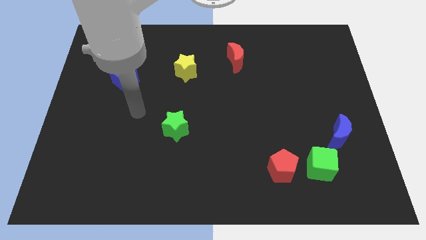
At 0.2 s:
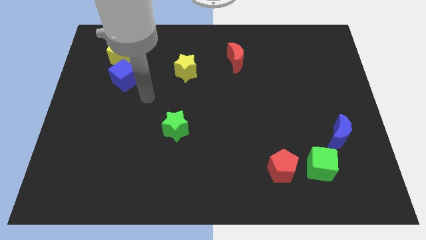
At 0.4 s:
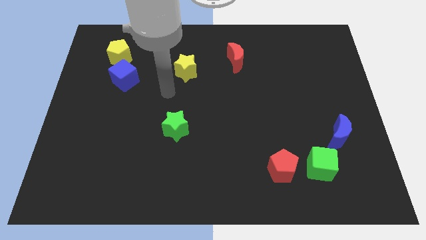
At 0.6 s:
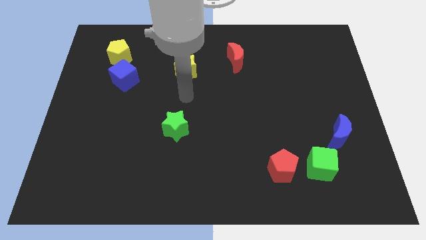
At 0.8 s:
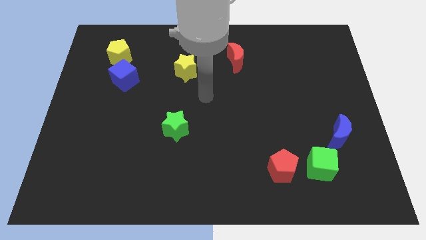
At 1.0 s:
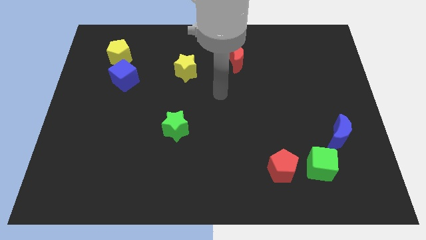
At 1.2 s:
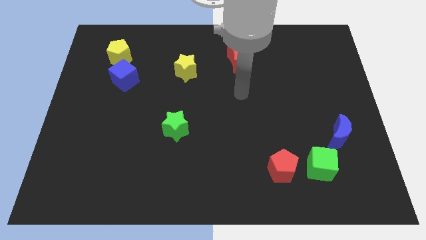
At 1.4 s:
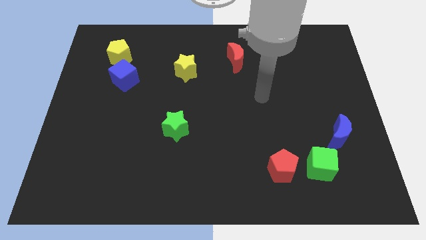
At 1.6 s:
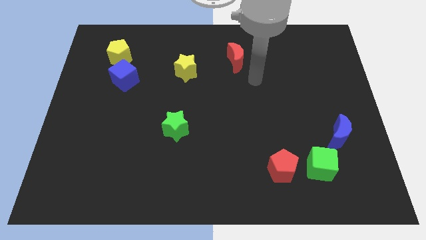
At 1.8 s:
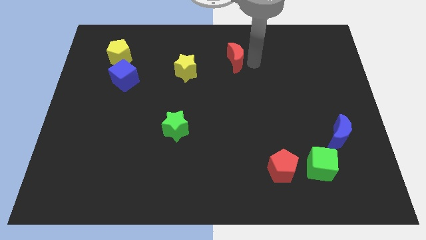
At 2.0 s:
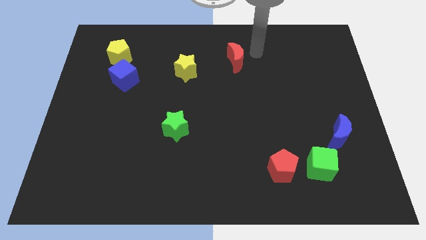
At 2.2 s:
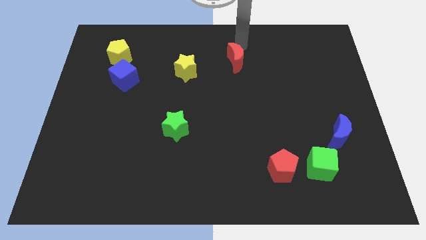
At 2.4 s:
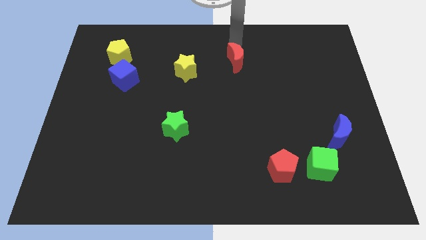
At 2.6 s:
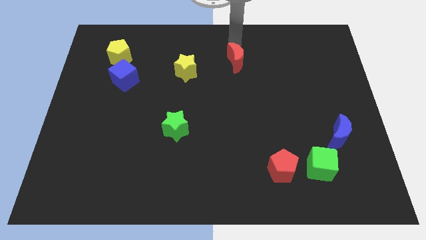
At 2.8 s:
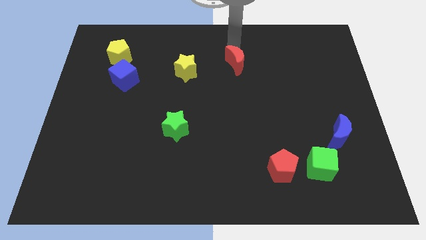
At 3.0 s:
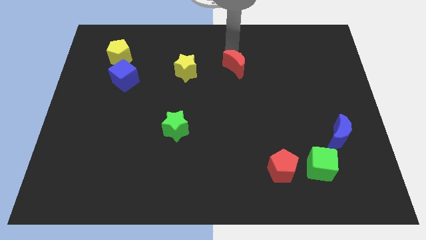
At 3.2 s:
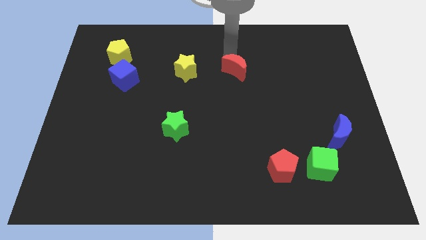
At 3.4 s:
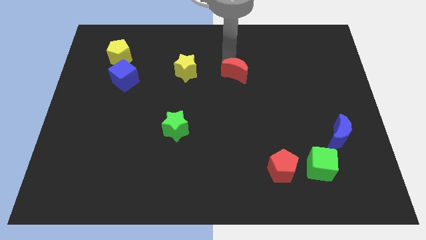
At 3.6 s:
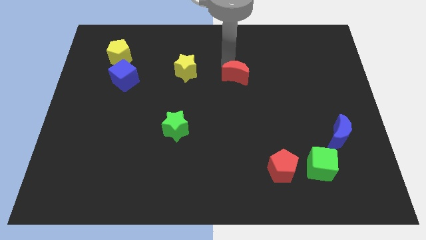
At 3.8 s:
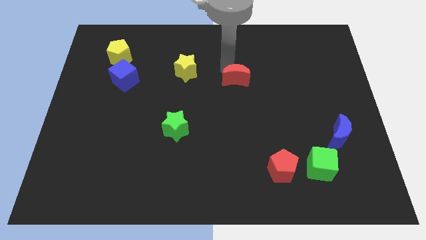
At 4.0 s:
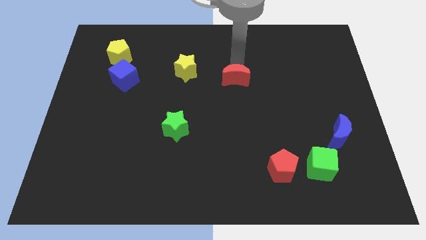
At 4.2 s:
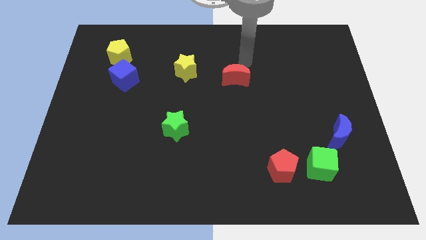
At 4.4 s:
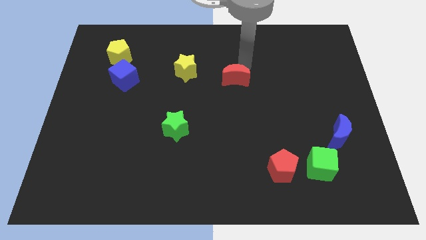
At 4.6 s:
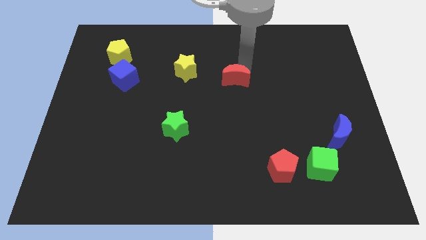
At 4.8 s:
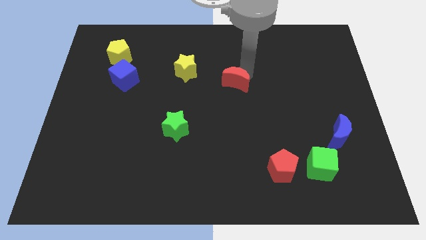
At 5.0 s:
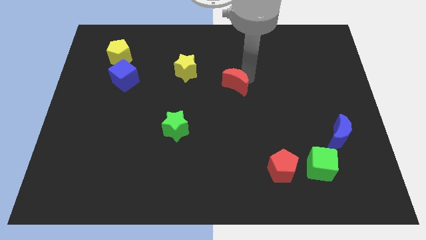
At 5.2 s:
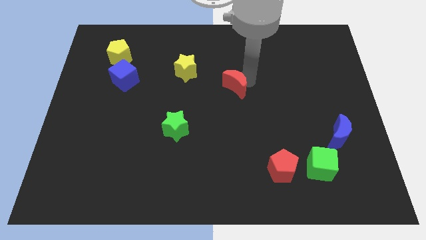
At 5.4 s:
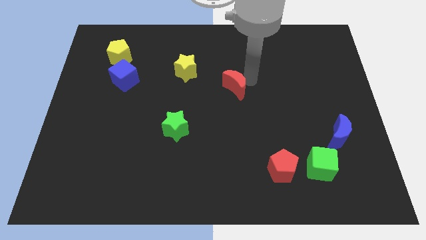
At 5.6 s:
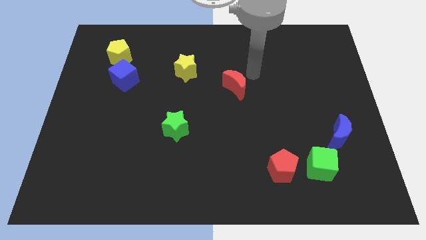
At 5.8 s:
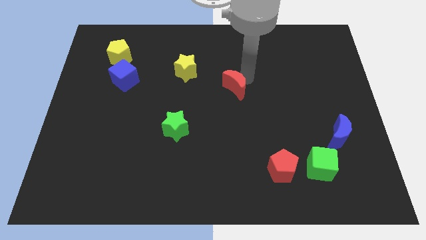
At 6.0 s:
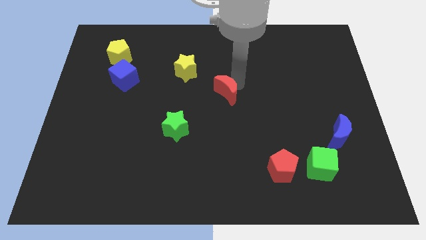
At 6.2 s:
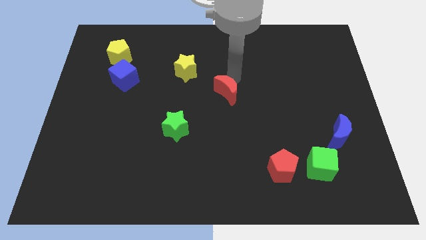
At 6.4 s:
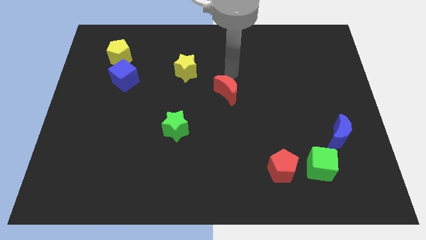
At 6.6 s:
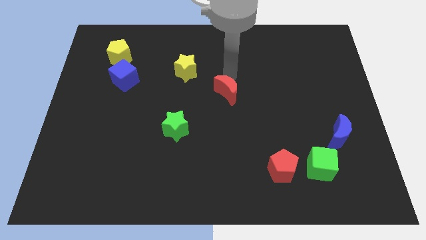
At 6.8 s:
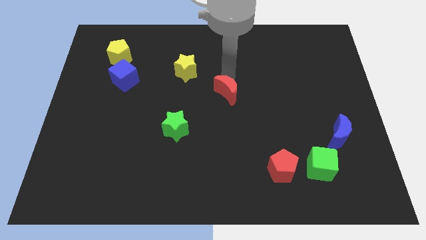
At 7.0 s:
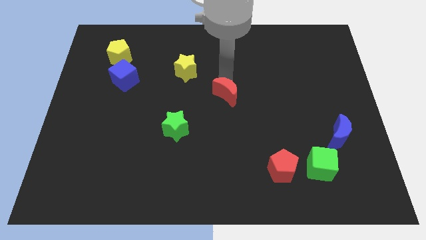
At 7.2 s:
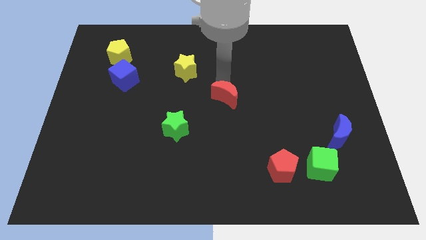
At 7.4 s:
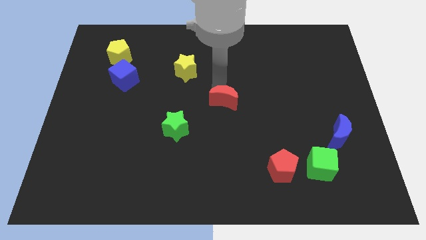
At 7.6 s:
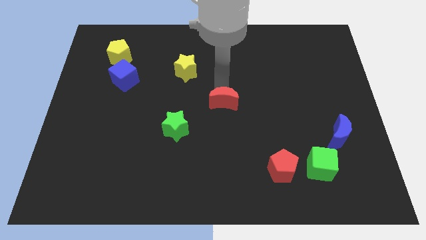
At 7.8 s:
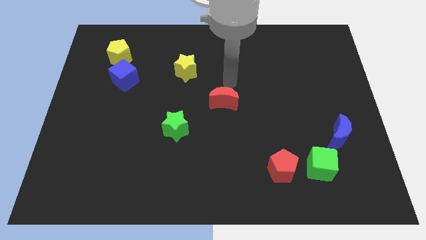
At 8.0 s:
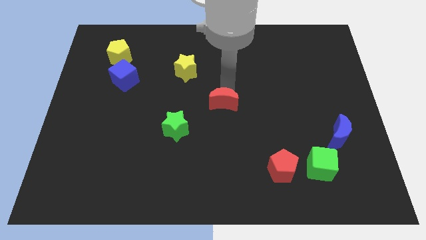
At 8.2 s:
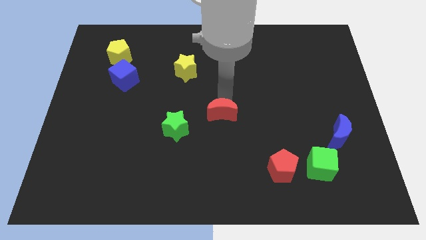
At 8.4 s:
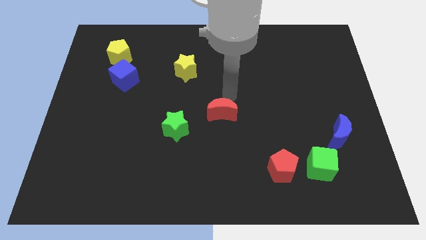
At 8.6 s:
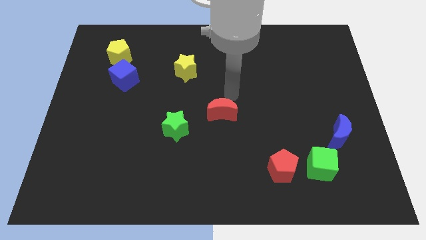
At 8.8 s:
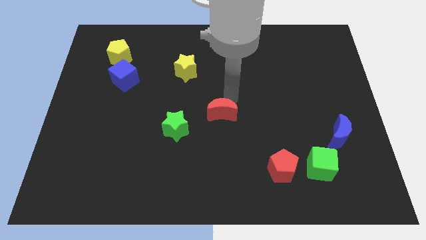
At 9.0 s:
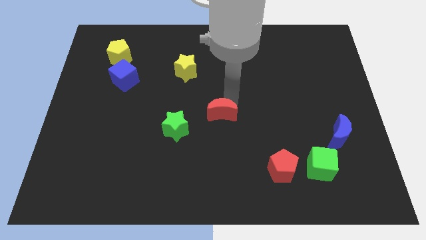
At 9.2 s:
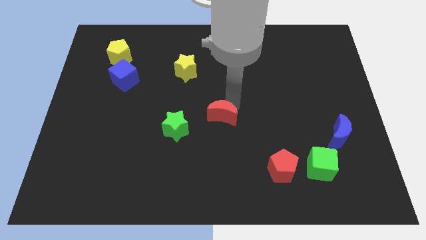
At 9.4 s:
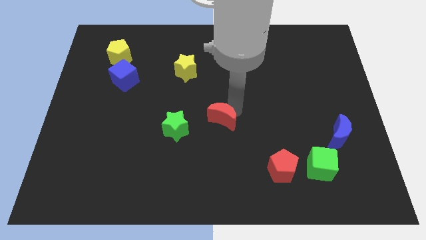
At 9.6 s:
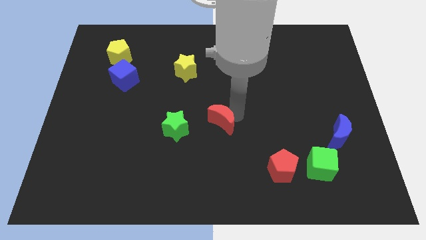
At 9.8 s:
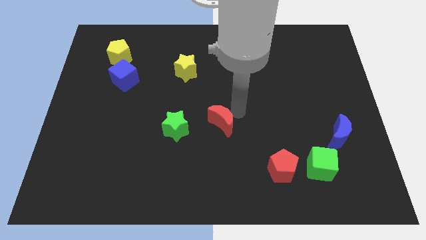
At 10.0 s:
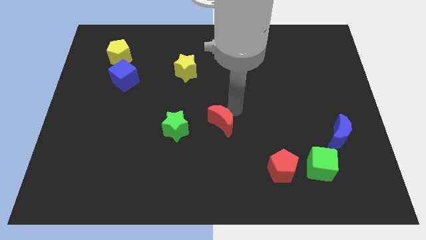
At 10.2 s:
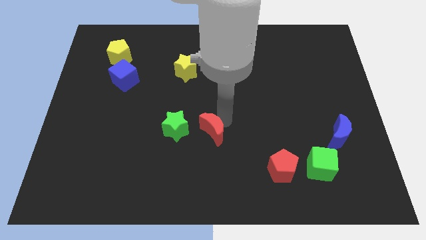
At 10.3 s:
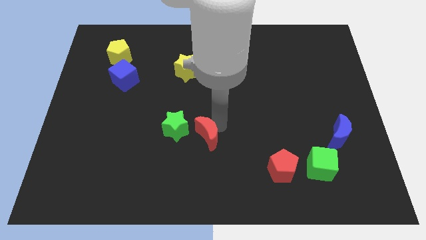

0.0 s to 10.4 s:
slide the red moon to the bottom right of the green star

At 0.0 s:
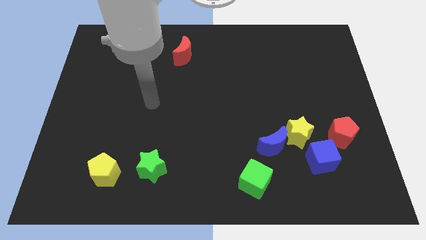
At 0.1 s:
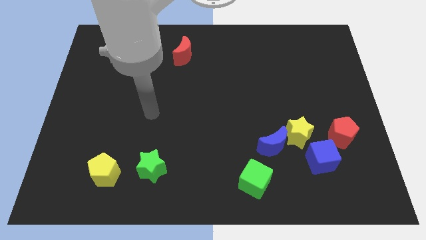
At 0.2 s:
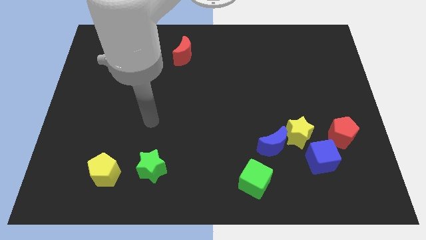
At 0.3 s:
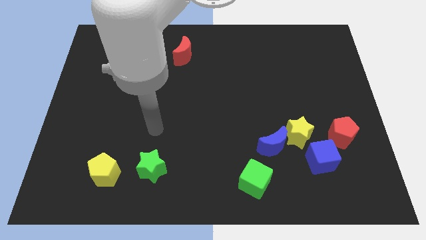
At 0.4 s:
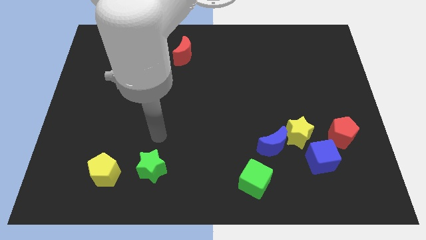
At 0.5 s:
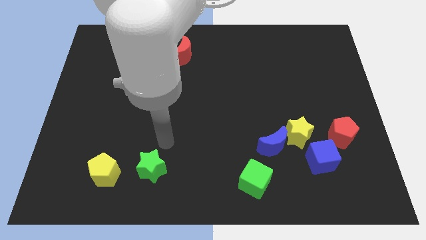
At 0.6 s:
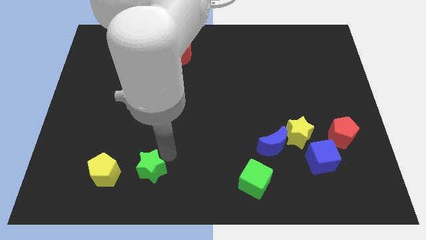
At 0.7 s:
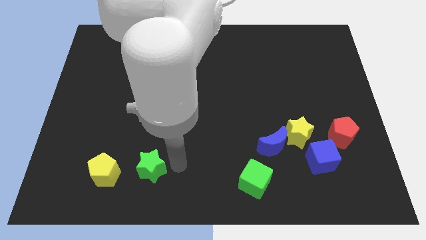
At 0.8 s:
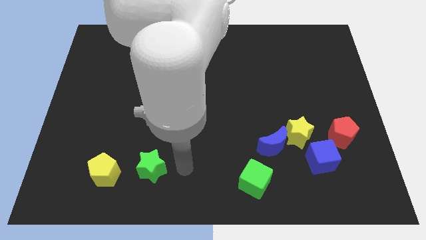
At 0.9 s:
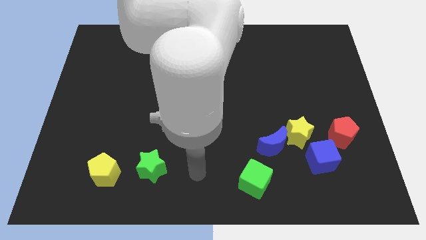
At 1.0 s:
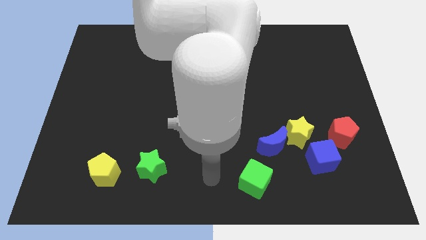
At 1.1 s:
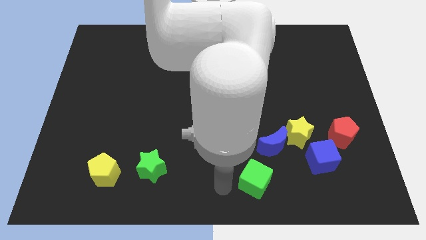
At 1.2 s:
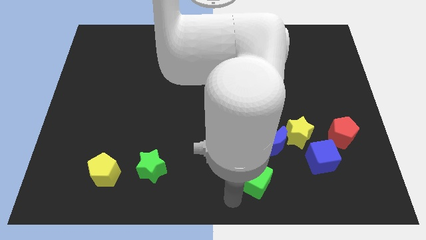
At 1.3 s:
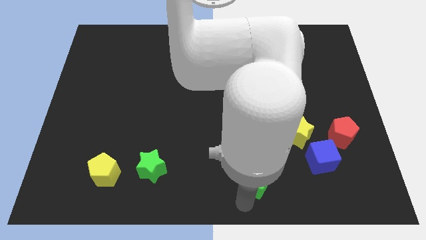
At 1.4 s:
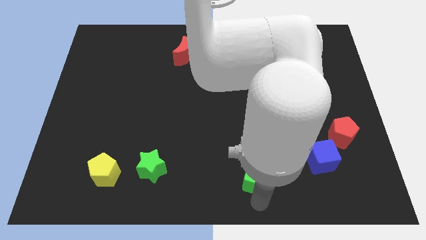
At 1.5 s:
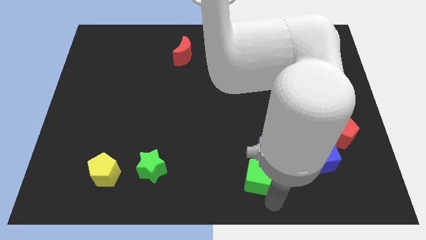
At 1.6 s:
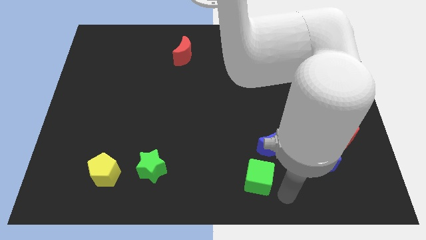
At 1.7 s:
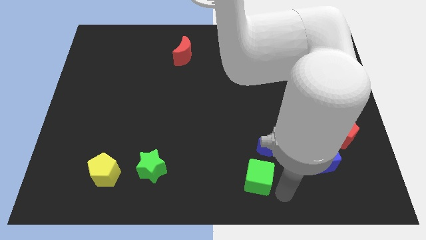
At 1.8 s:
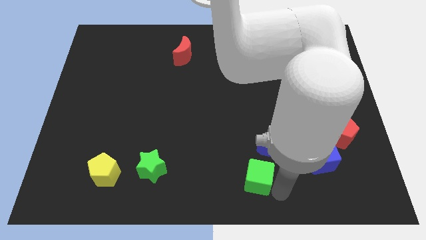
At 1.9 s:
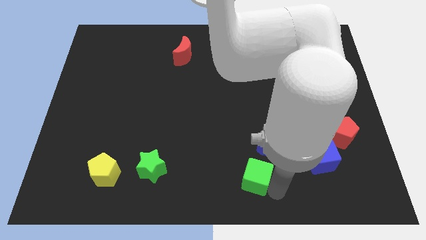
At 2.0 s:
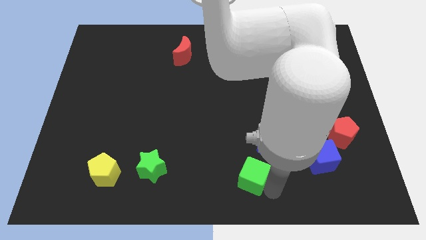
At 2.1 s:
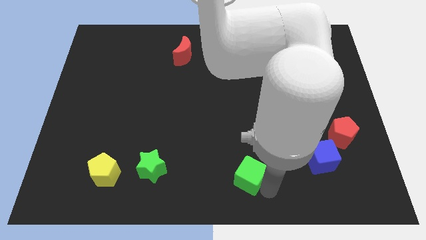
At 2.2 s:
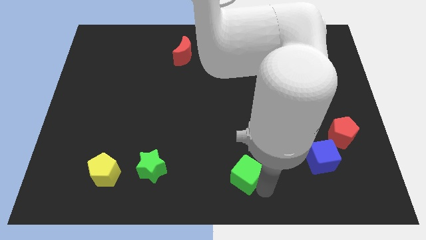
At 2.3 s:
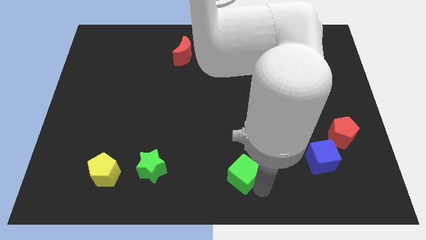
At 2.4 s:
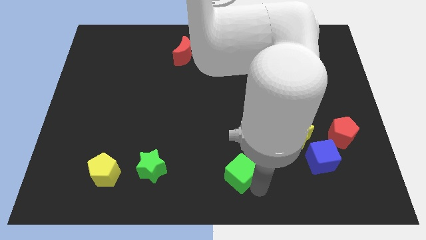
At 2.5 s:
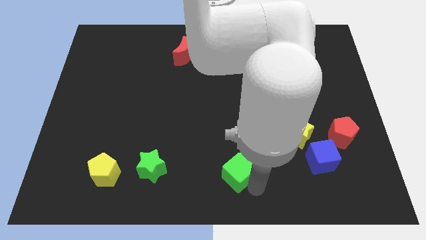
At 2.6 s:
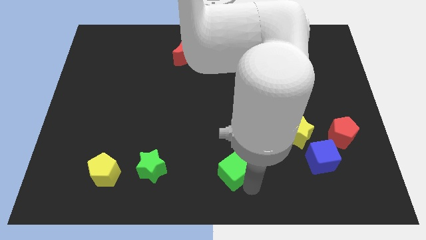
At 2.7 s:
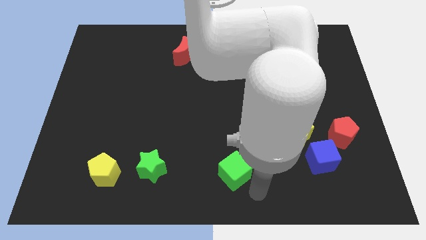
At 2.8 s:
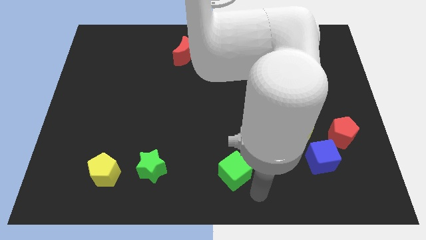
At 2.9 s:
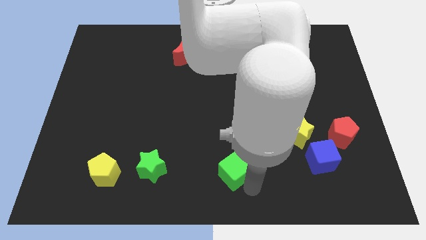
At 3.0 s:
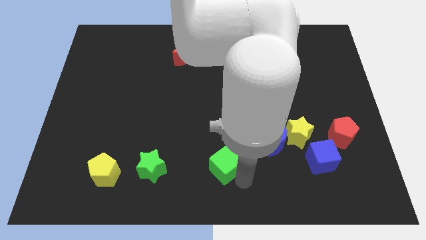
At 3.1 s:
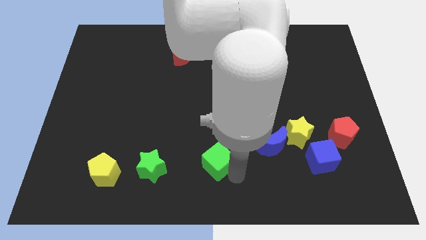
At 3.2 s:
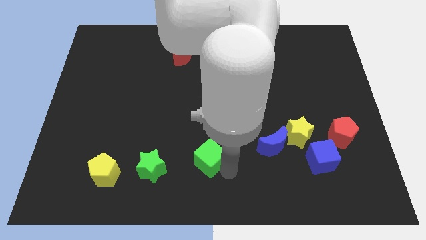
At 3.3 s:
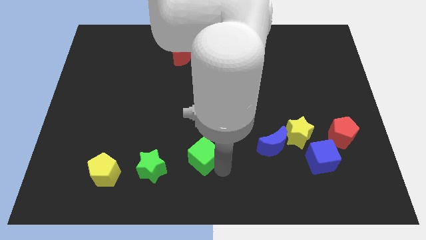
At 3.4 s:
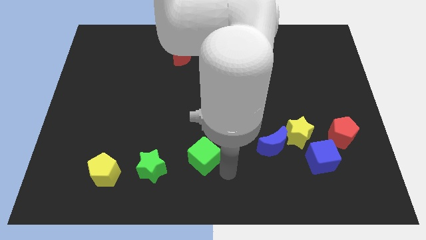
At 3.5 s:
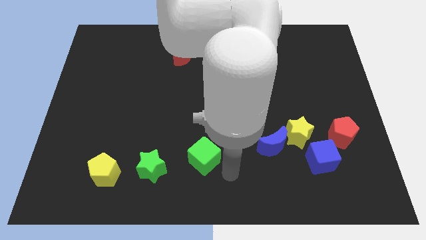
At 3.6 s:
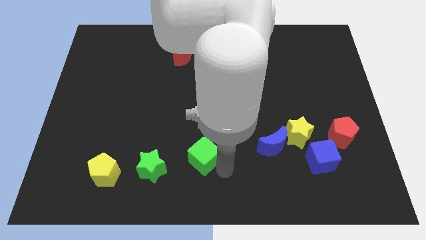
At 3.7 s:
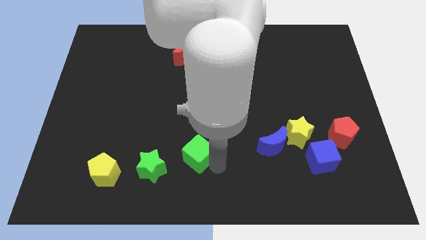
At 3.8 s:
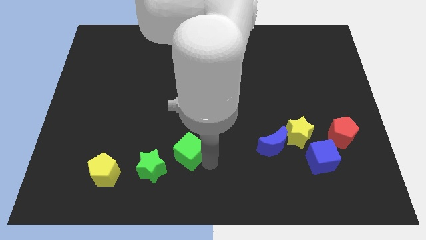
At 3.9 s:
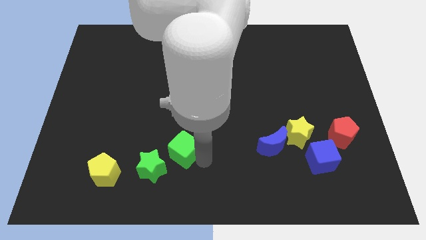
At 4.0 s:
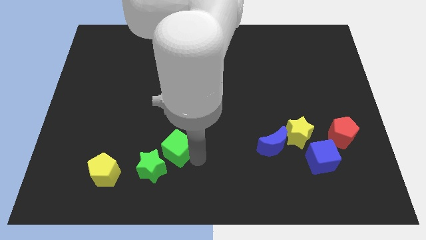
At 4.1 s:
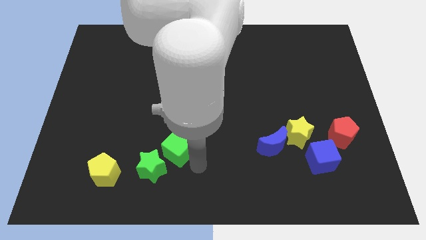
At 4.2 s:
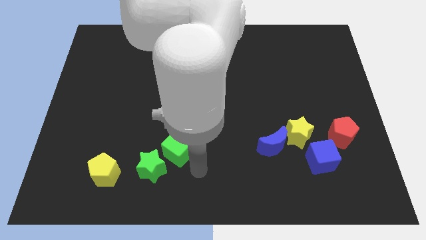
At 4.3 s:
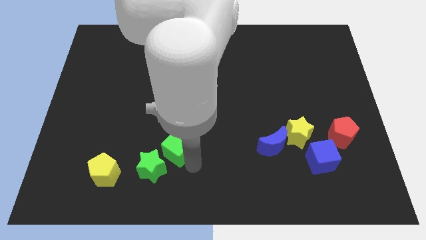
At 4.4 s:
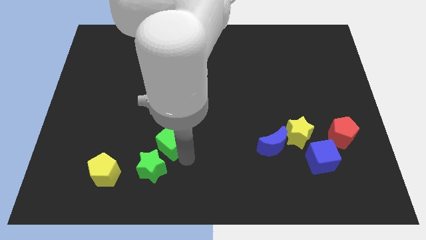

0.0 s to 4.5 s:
move the green cube to the top side of the green star
